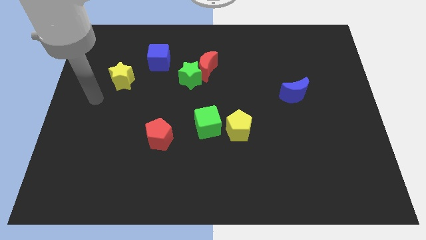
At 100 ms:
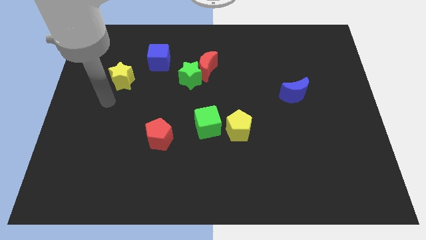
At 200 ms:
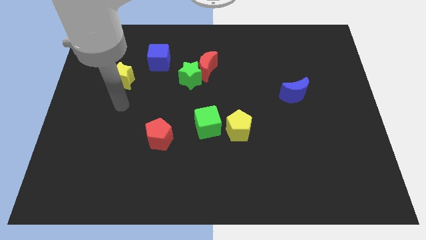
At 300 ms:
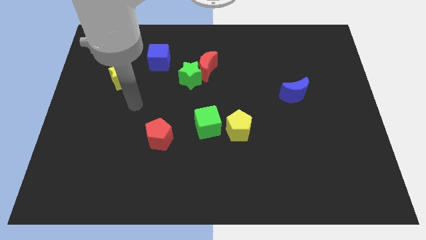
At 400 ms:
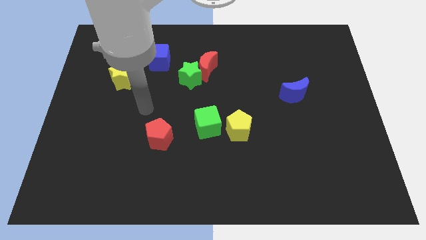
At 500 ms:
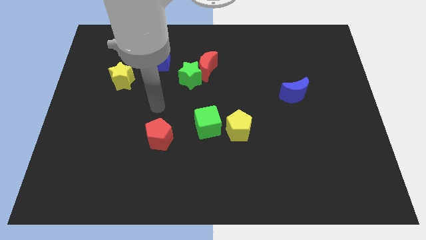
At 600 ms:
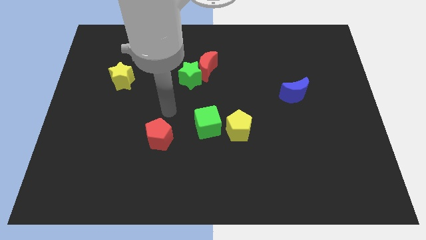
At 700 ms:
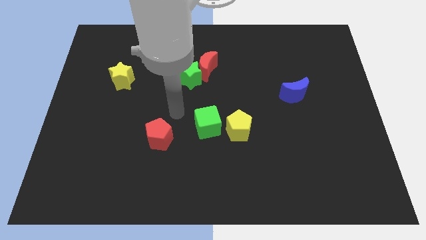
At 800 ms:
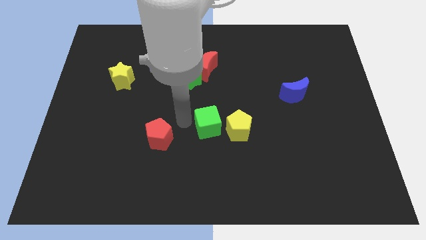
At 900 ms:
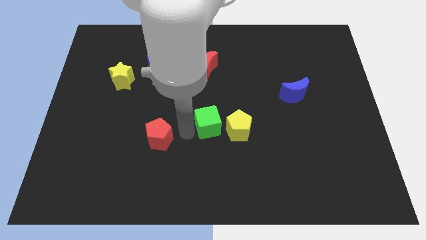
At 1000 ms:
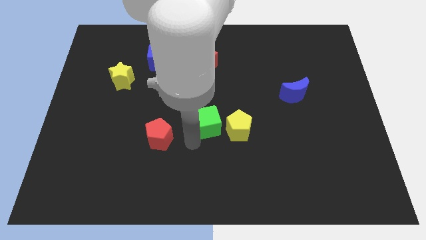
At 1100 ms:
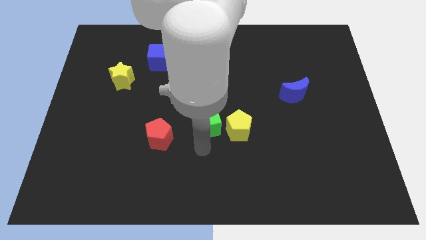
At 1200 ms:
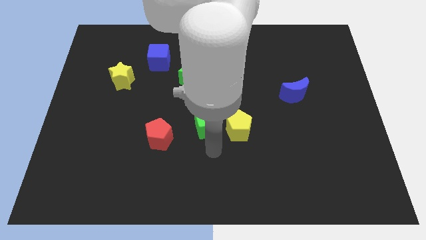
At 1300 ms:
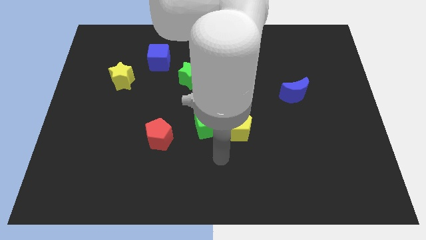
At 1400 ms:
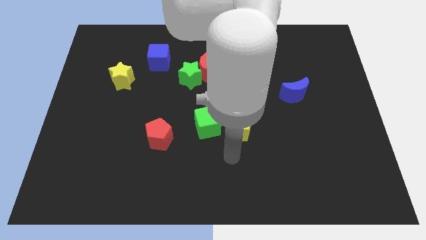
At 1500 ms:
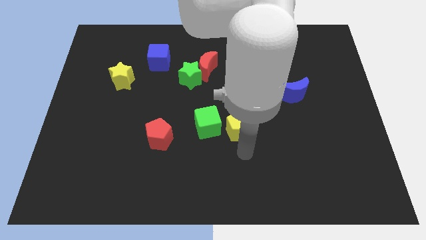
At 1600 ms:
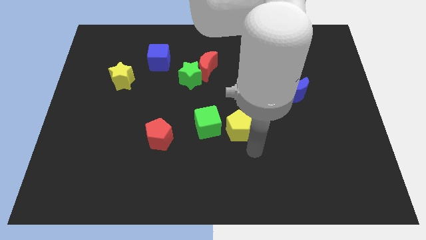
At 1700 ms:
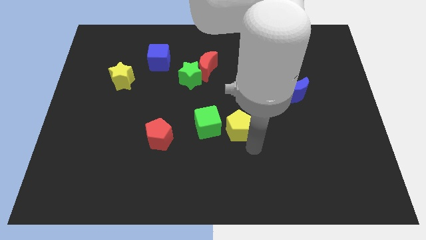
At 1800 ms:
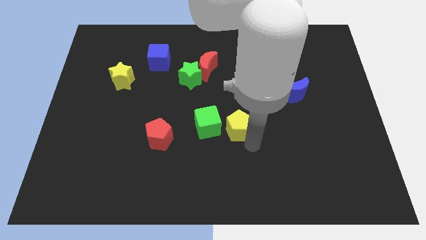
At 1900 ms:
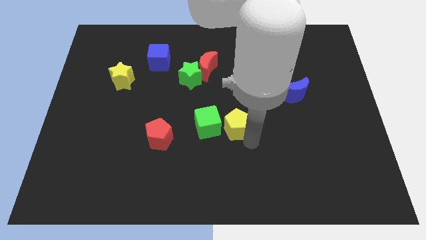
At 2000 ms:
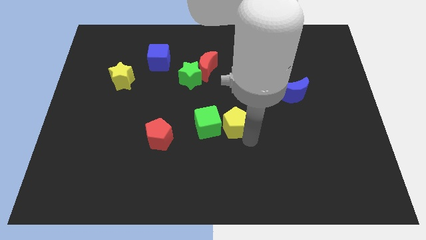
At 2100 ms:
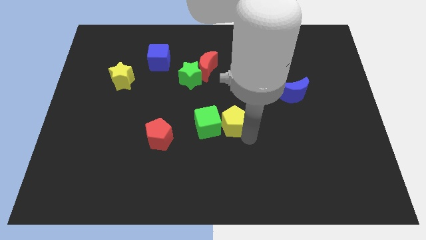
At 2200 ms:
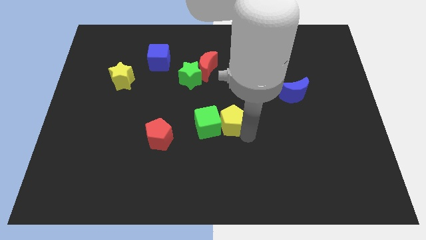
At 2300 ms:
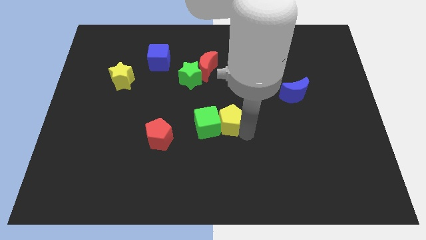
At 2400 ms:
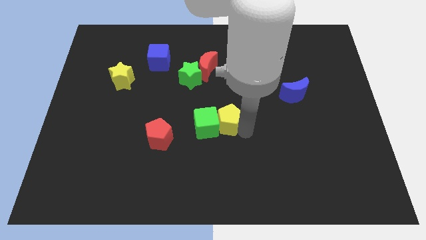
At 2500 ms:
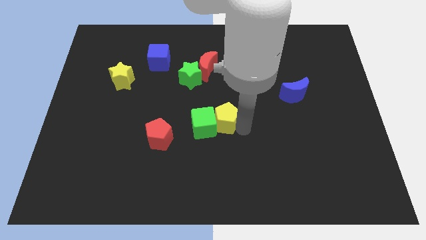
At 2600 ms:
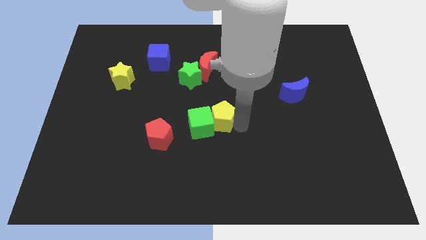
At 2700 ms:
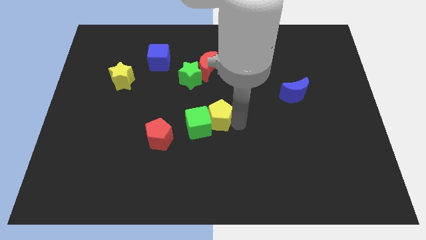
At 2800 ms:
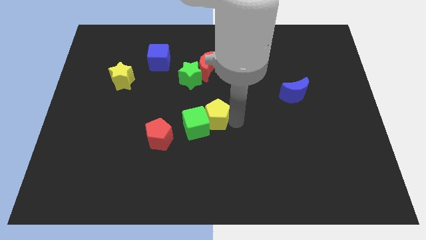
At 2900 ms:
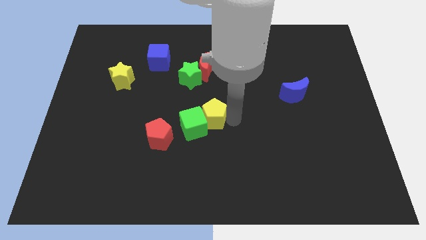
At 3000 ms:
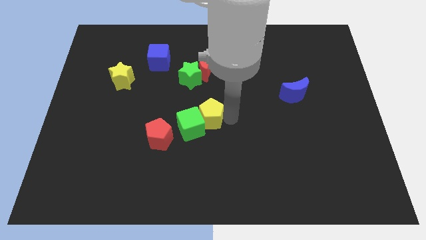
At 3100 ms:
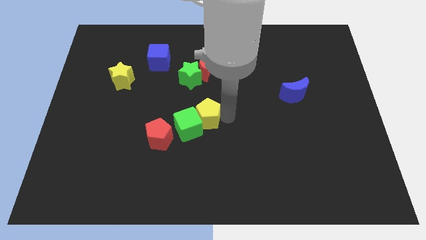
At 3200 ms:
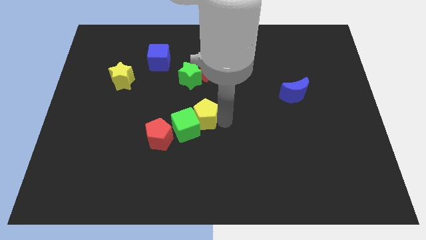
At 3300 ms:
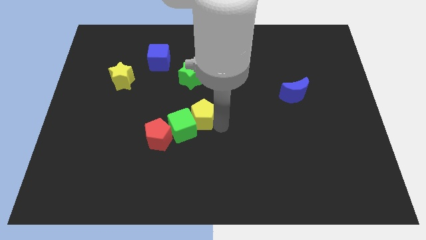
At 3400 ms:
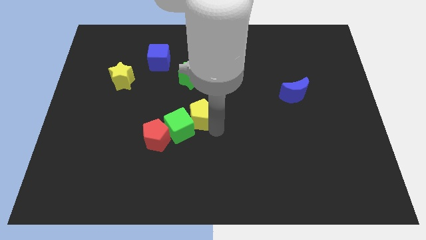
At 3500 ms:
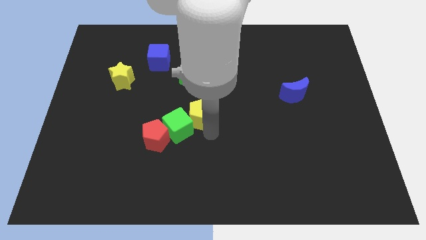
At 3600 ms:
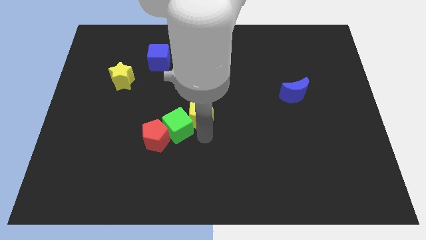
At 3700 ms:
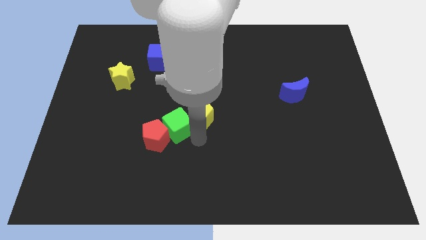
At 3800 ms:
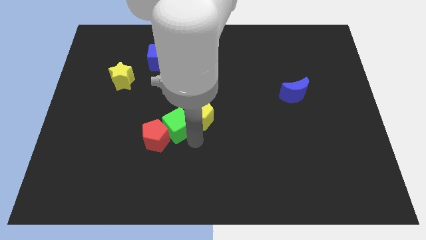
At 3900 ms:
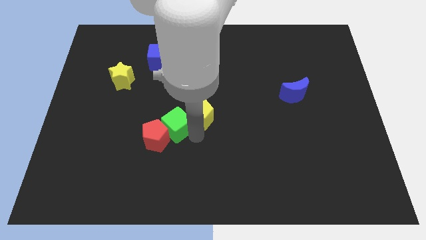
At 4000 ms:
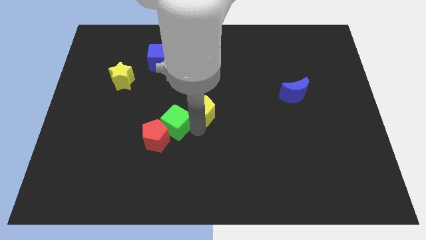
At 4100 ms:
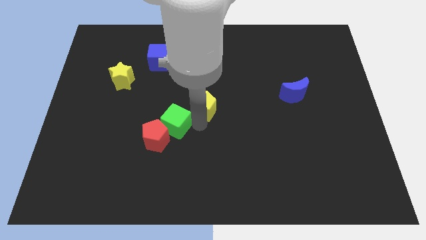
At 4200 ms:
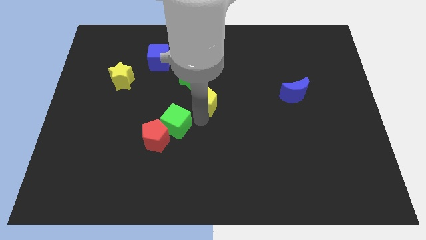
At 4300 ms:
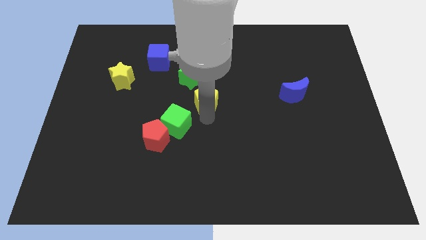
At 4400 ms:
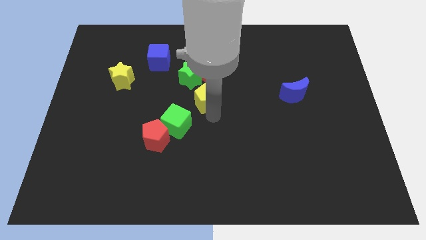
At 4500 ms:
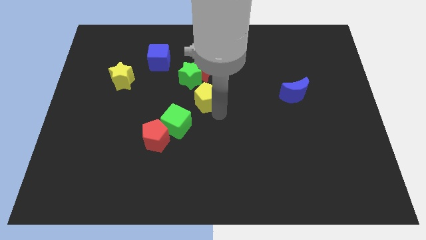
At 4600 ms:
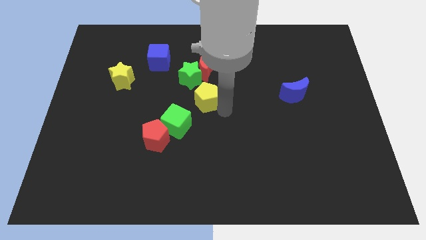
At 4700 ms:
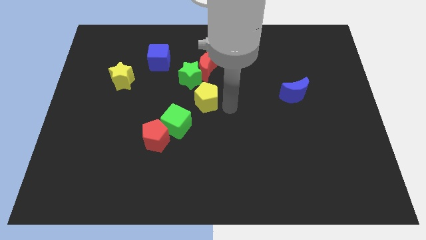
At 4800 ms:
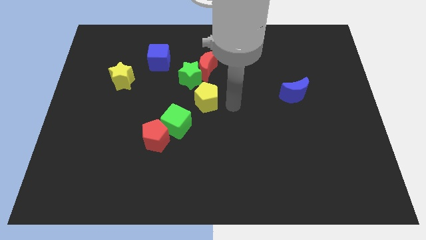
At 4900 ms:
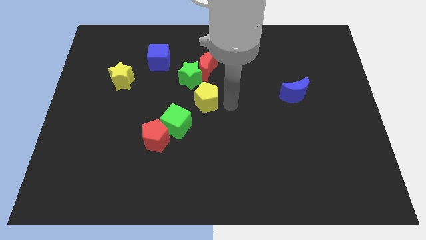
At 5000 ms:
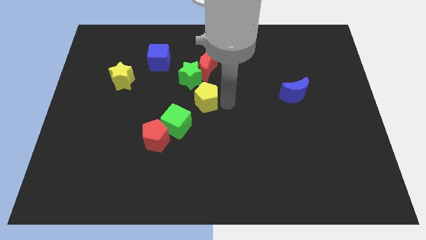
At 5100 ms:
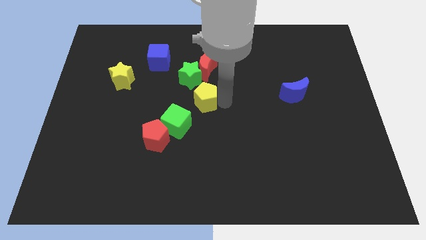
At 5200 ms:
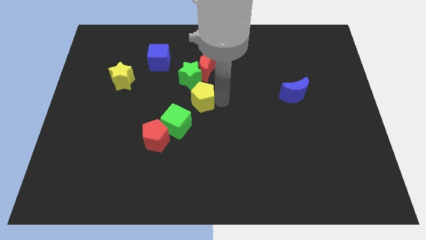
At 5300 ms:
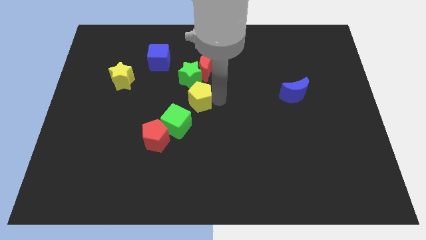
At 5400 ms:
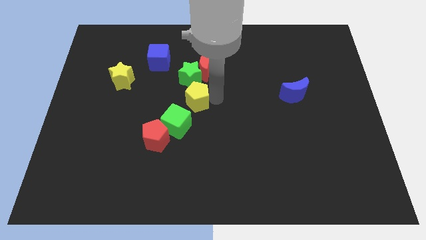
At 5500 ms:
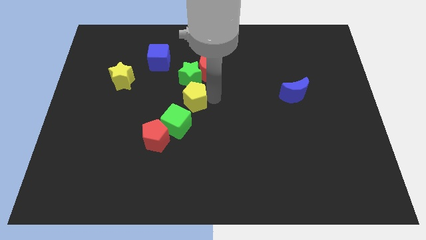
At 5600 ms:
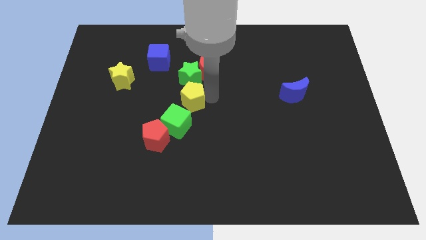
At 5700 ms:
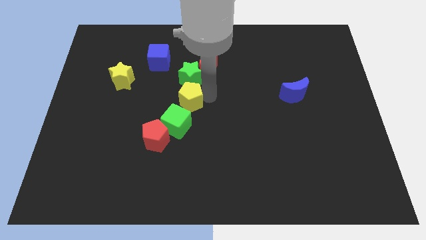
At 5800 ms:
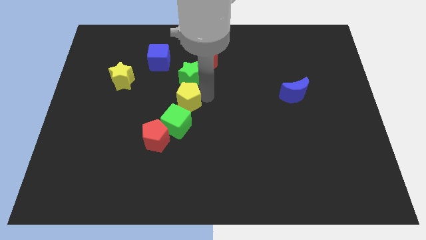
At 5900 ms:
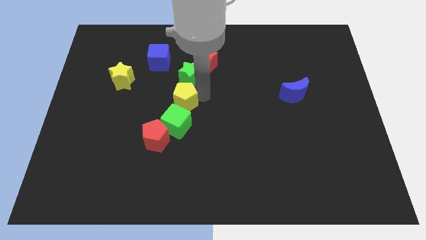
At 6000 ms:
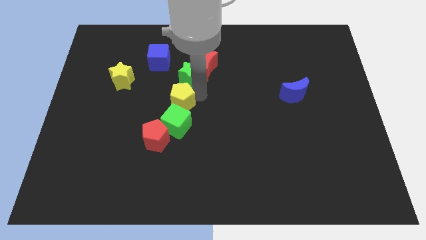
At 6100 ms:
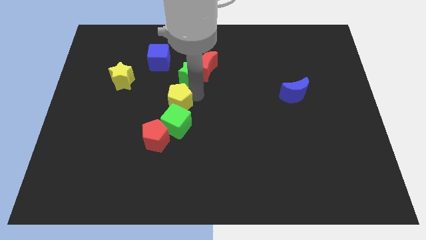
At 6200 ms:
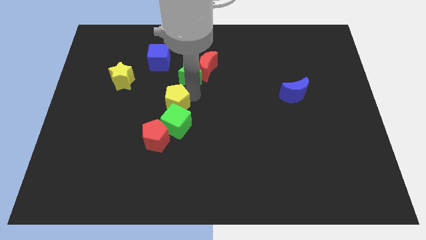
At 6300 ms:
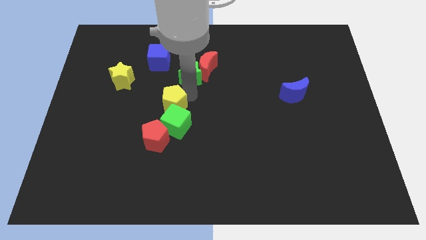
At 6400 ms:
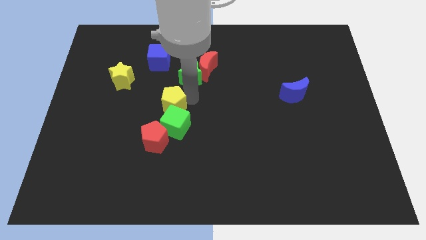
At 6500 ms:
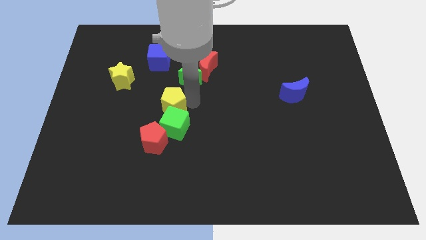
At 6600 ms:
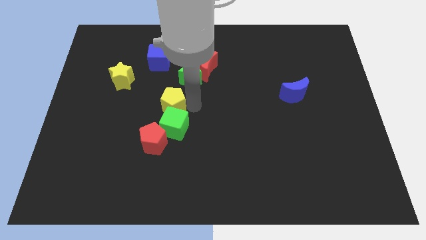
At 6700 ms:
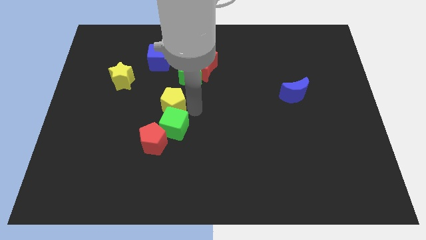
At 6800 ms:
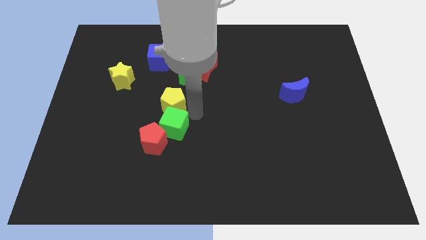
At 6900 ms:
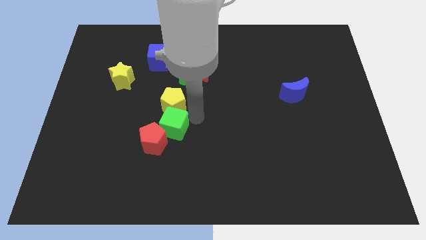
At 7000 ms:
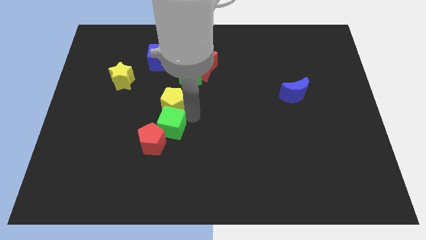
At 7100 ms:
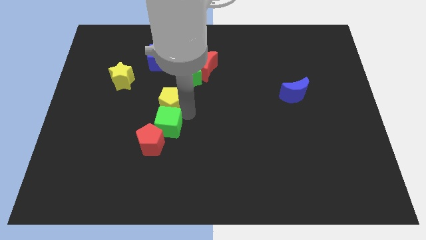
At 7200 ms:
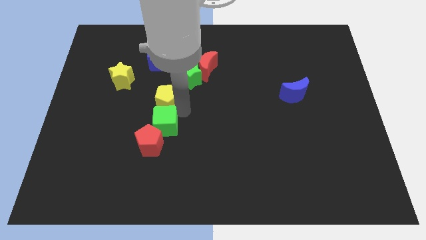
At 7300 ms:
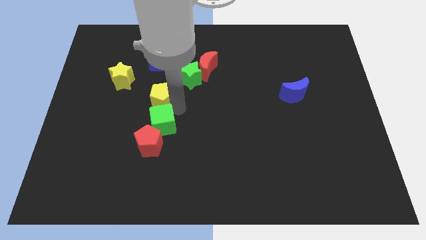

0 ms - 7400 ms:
put the yellow pentagon to the bottom right of the yellow star

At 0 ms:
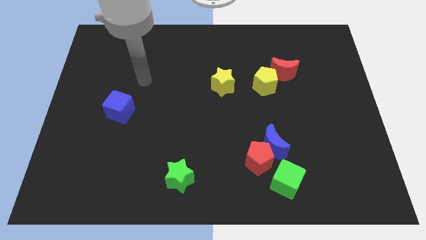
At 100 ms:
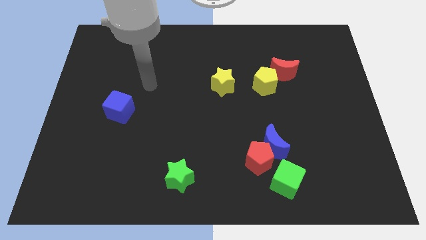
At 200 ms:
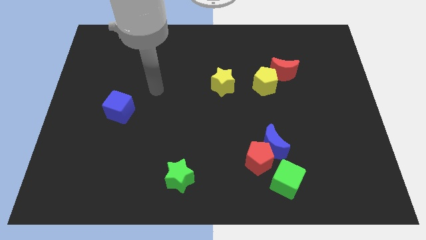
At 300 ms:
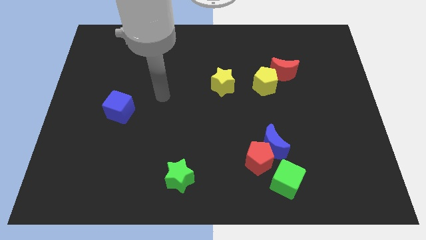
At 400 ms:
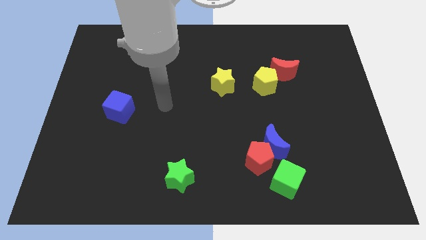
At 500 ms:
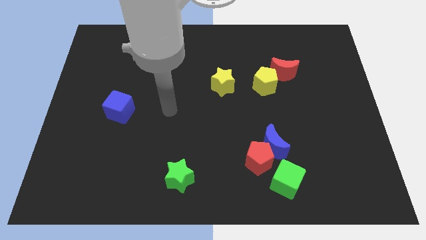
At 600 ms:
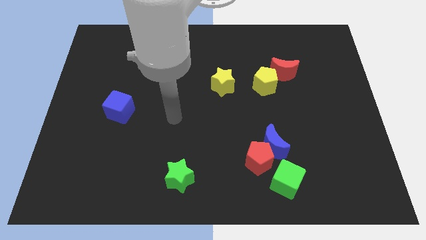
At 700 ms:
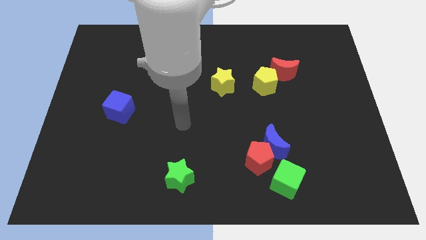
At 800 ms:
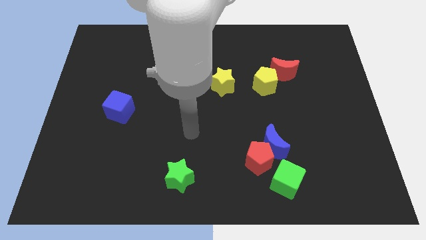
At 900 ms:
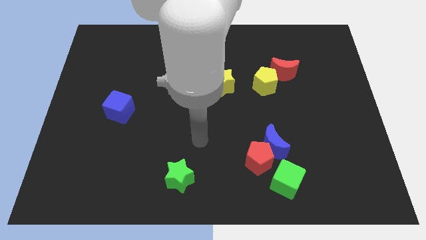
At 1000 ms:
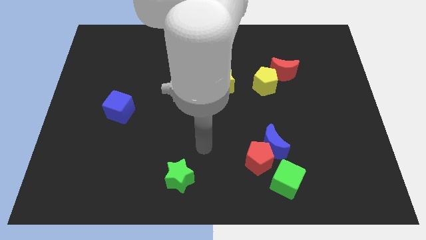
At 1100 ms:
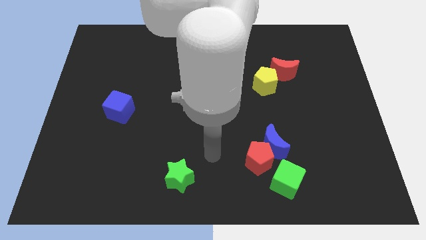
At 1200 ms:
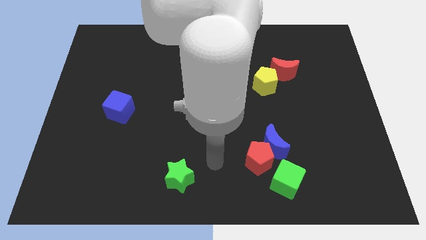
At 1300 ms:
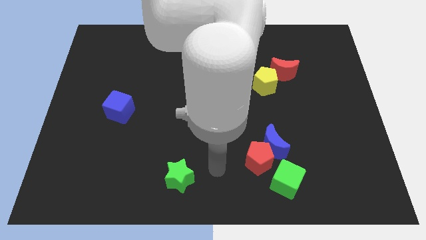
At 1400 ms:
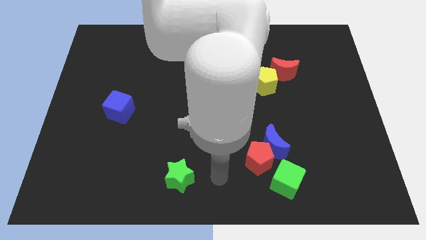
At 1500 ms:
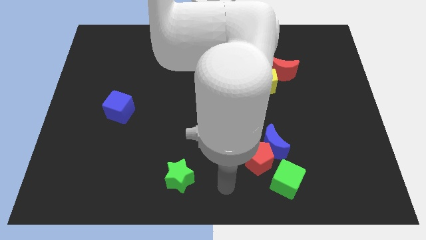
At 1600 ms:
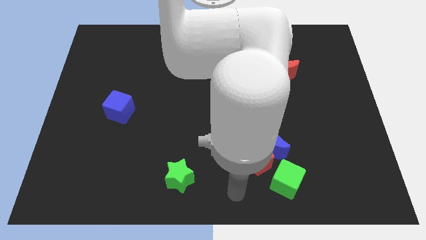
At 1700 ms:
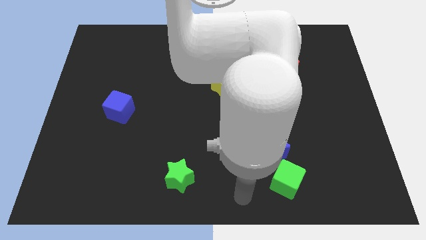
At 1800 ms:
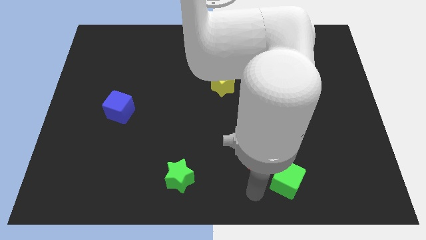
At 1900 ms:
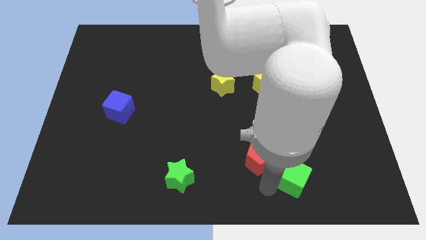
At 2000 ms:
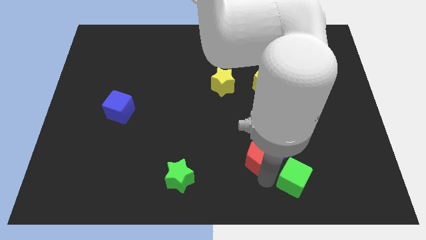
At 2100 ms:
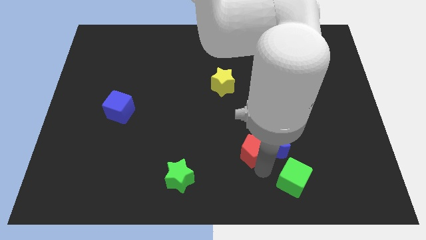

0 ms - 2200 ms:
put the red pentagon to the top left side of the blue moon
